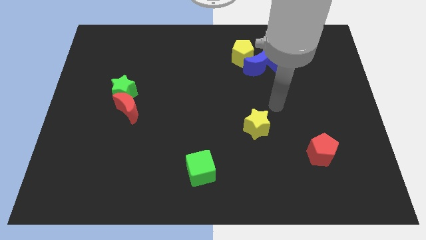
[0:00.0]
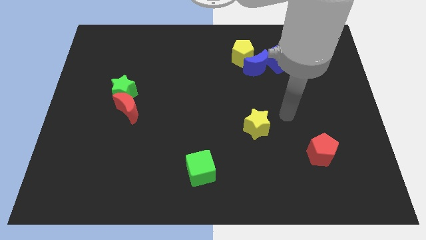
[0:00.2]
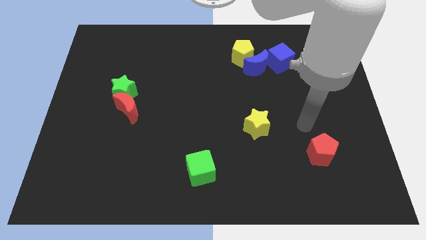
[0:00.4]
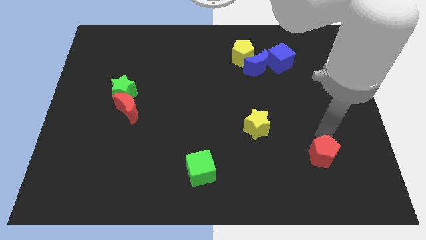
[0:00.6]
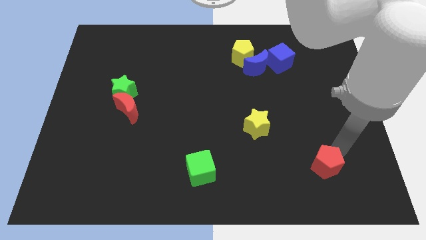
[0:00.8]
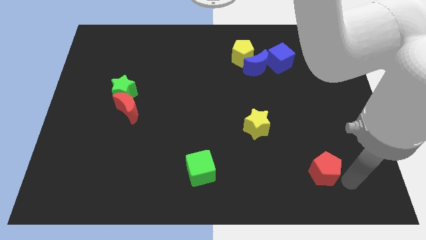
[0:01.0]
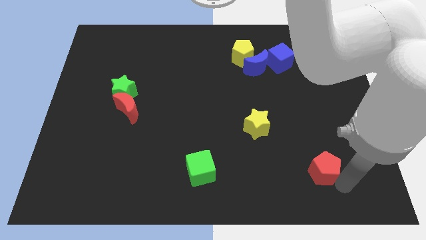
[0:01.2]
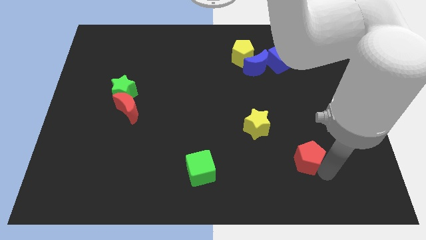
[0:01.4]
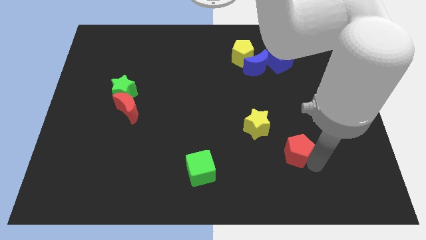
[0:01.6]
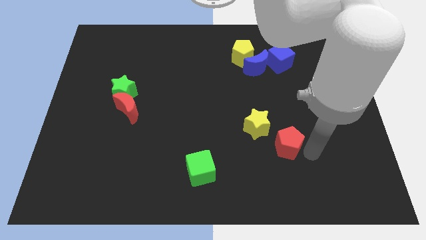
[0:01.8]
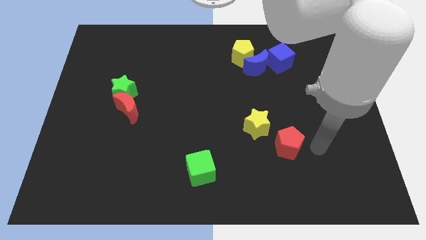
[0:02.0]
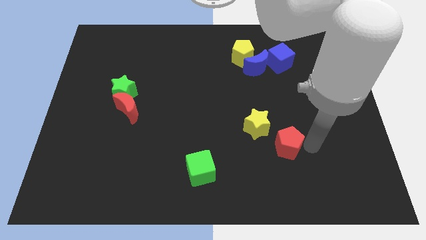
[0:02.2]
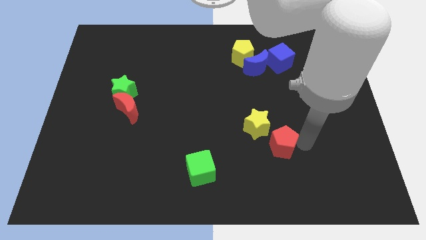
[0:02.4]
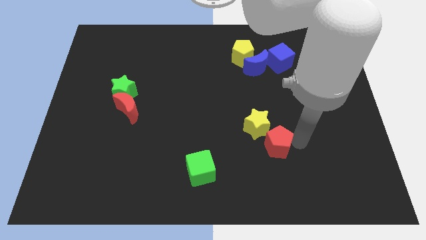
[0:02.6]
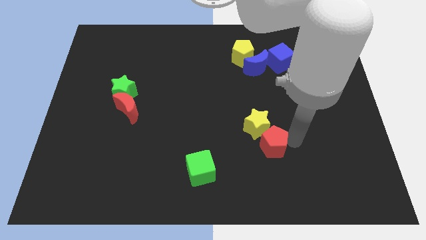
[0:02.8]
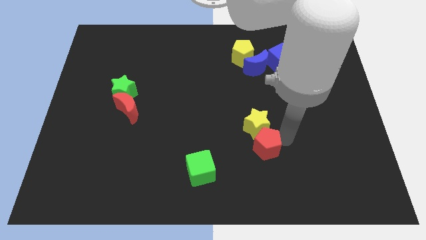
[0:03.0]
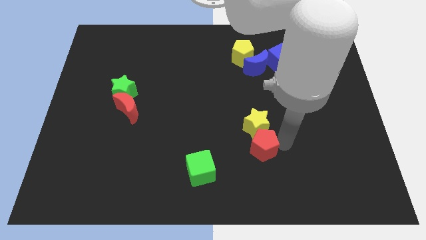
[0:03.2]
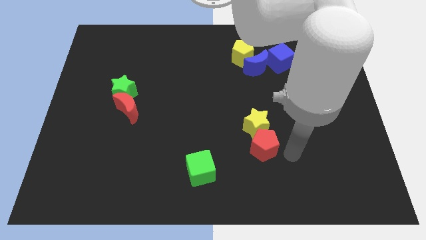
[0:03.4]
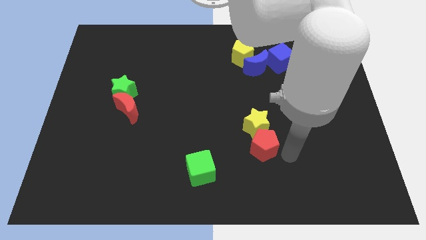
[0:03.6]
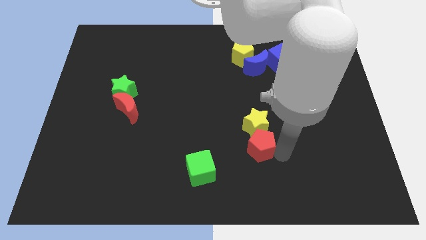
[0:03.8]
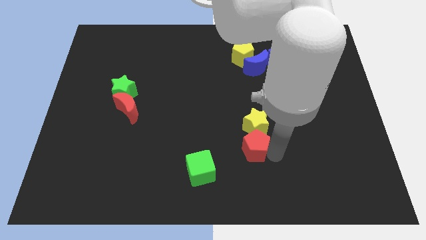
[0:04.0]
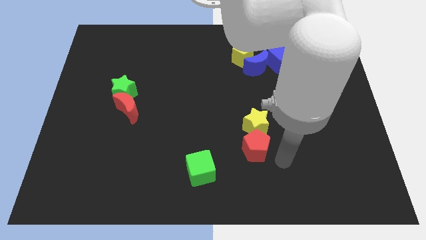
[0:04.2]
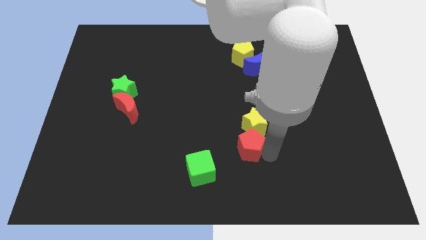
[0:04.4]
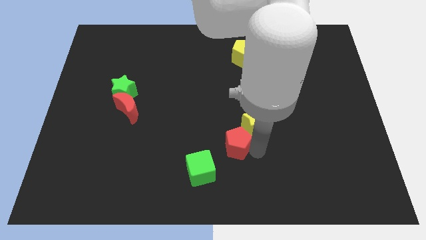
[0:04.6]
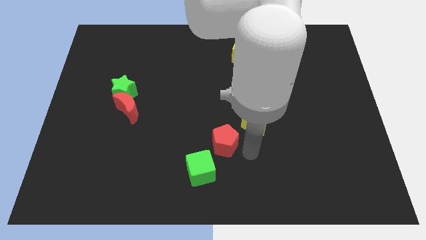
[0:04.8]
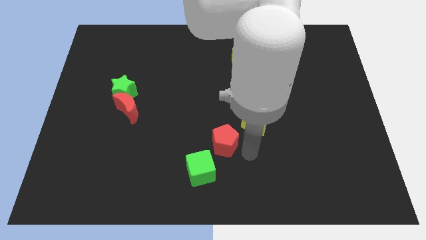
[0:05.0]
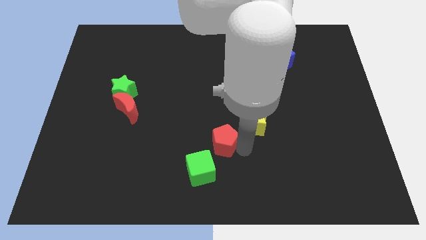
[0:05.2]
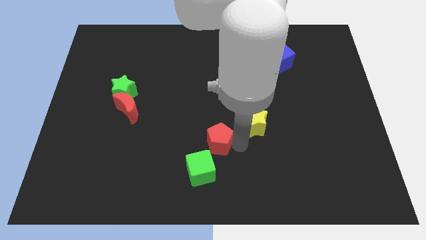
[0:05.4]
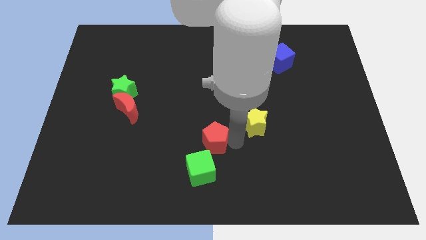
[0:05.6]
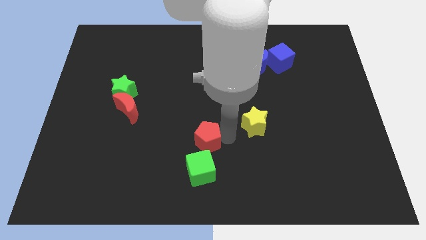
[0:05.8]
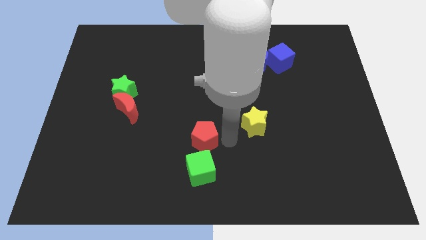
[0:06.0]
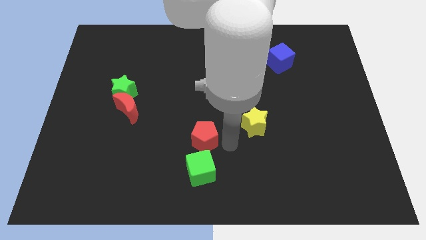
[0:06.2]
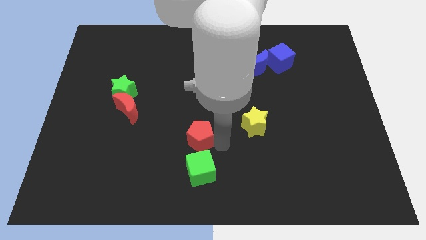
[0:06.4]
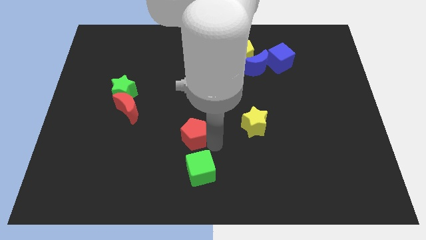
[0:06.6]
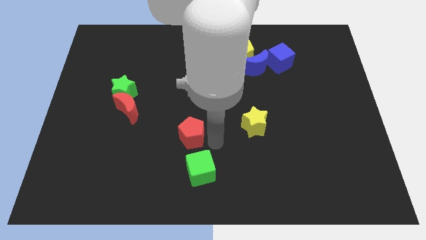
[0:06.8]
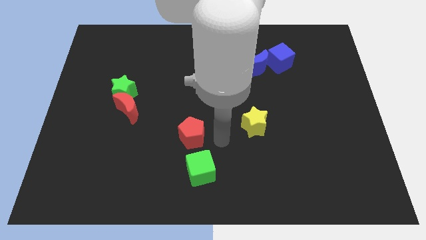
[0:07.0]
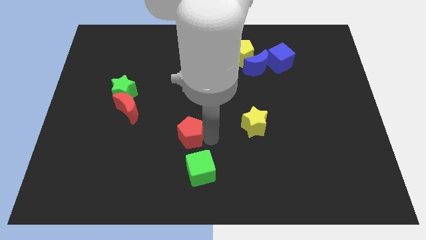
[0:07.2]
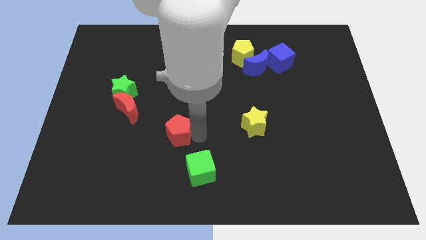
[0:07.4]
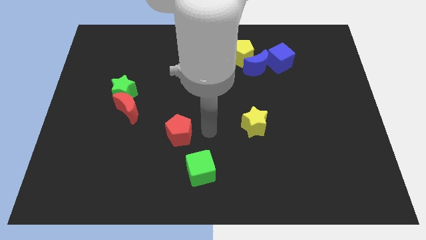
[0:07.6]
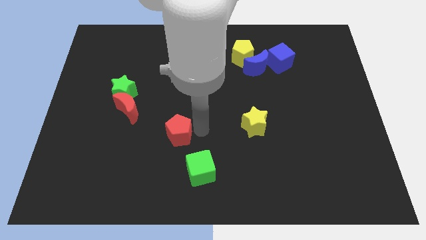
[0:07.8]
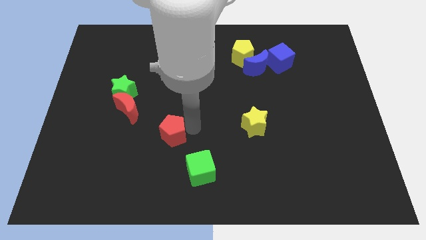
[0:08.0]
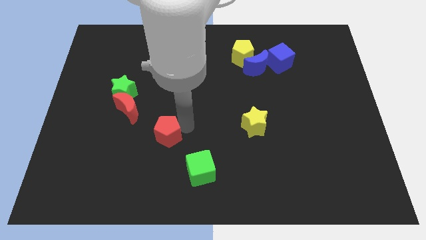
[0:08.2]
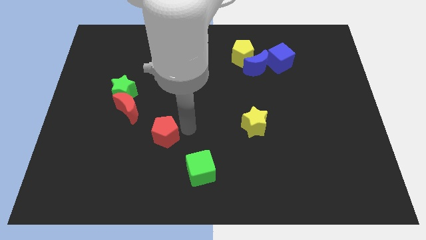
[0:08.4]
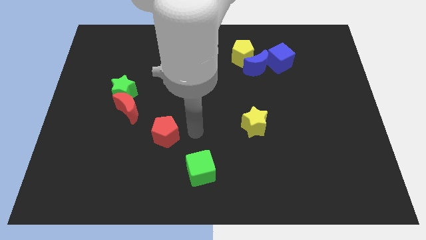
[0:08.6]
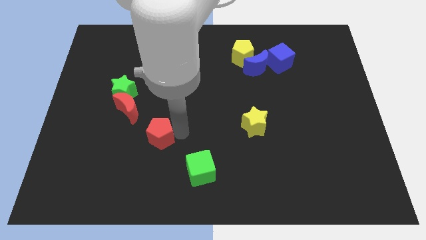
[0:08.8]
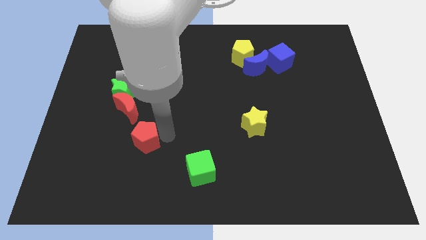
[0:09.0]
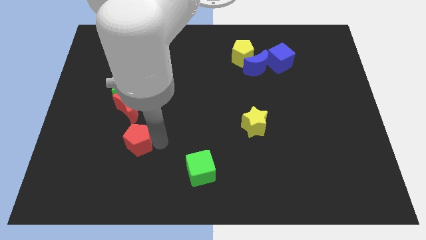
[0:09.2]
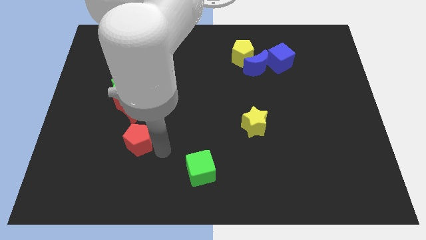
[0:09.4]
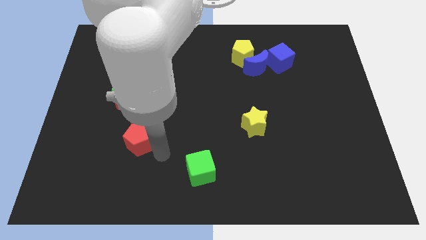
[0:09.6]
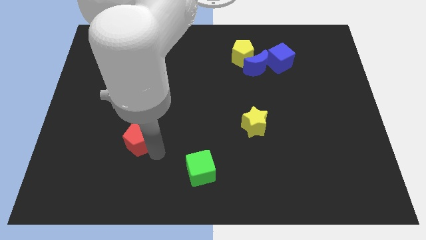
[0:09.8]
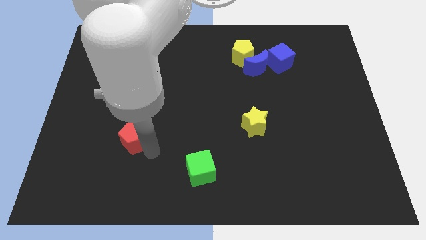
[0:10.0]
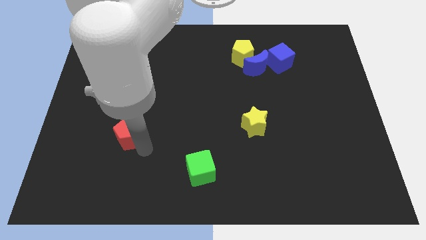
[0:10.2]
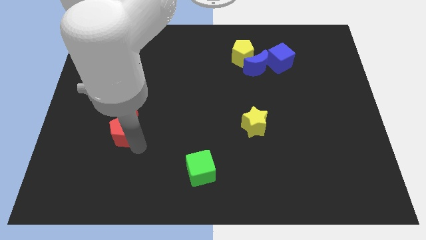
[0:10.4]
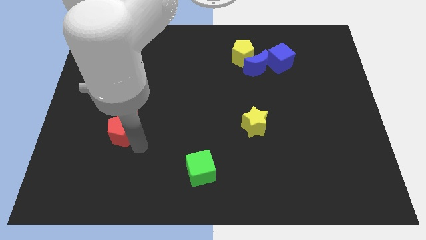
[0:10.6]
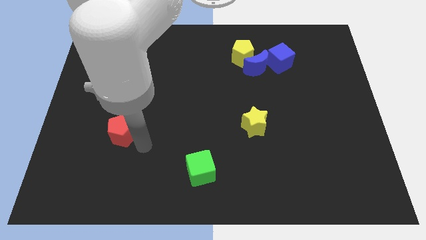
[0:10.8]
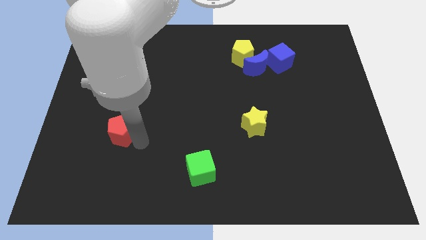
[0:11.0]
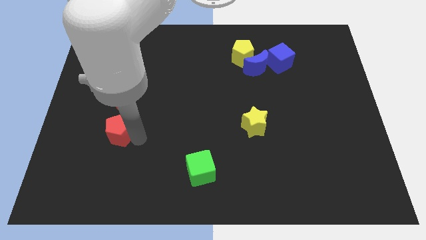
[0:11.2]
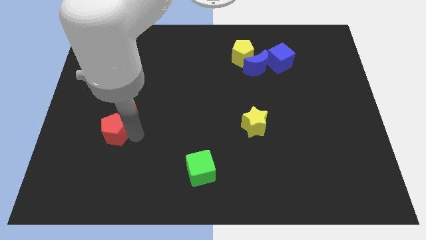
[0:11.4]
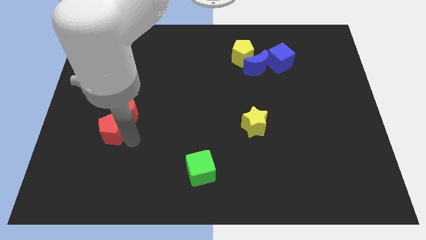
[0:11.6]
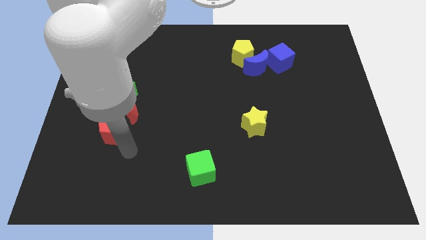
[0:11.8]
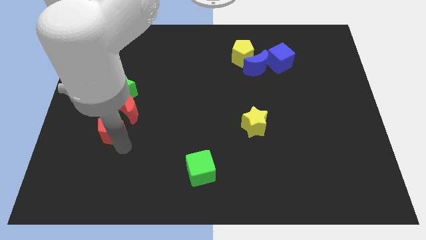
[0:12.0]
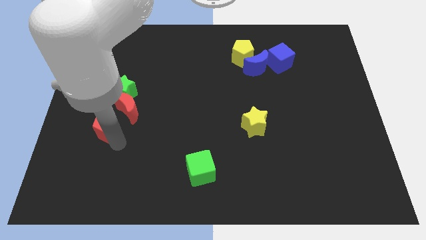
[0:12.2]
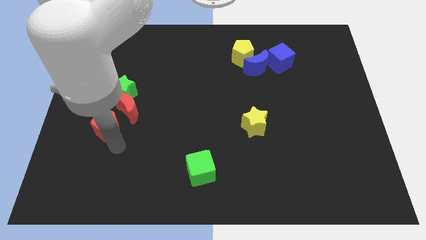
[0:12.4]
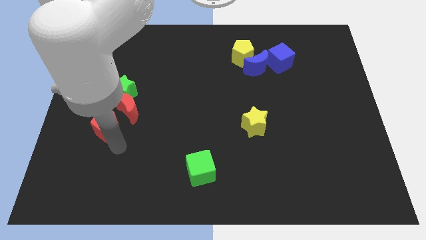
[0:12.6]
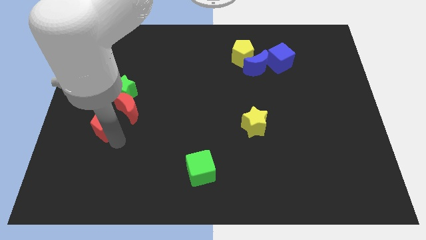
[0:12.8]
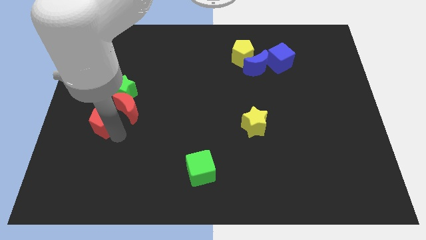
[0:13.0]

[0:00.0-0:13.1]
put the red pentagon to the bottom left side of the green star

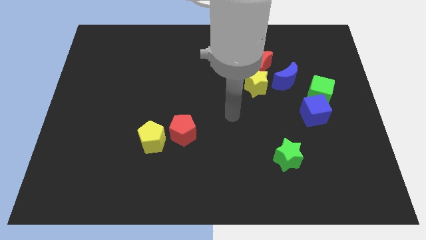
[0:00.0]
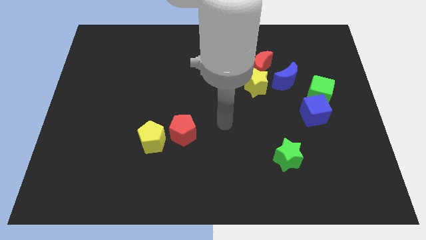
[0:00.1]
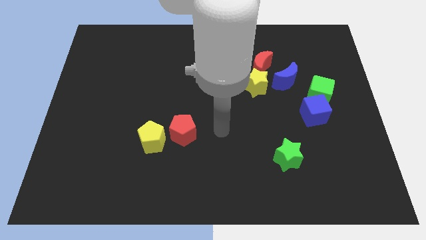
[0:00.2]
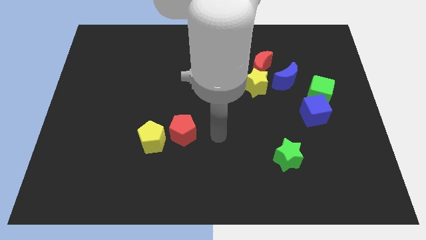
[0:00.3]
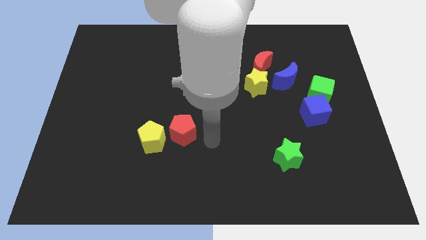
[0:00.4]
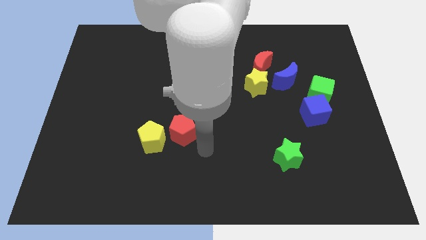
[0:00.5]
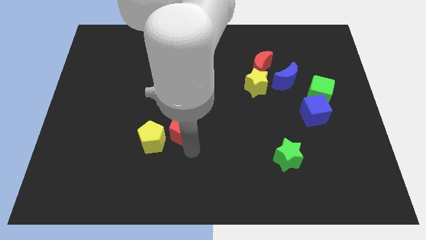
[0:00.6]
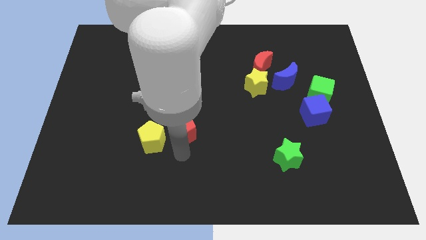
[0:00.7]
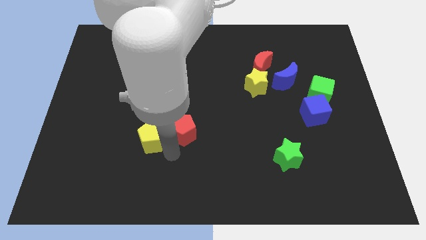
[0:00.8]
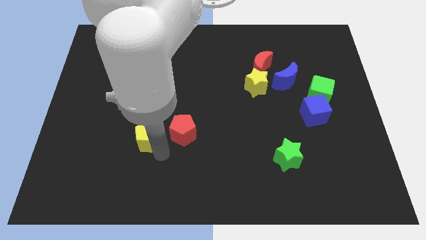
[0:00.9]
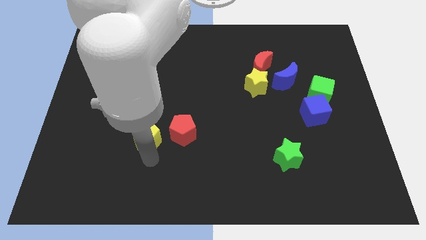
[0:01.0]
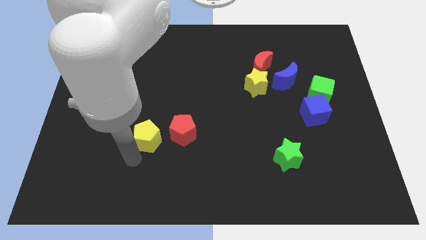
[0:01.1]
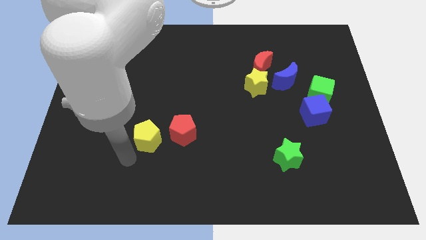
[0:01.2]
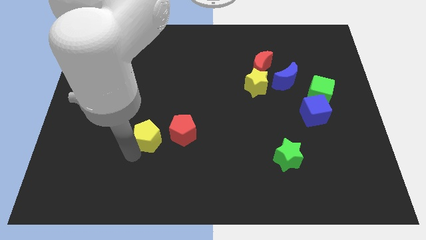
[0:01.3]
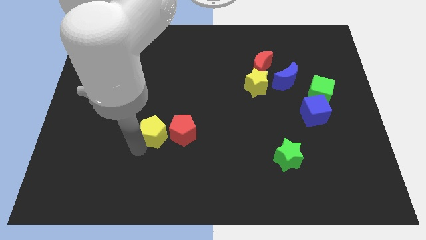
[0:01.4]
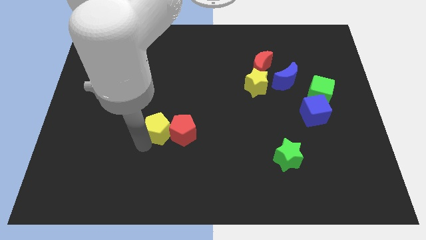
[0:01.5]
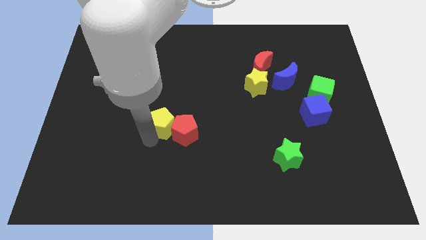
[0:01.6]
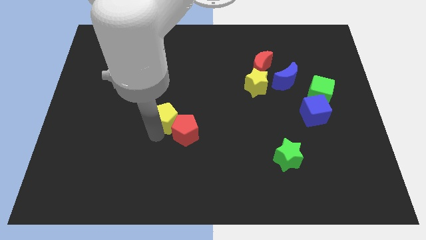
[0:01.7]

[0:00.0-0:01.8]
push the yellow pentagon to the top side of the red pentagon
